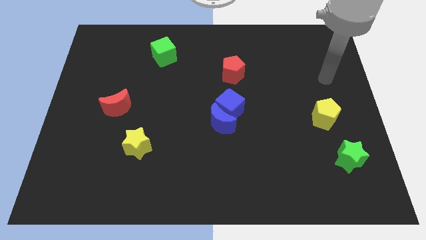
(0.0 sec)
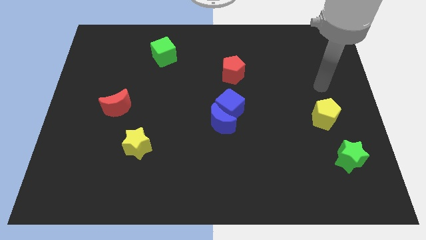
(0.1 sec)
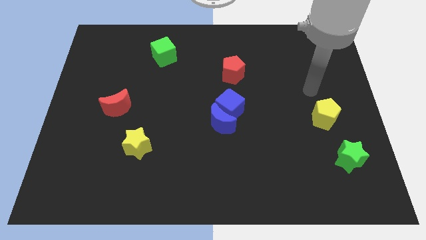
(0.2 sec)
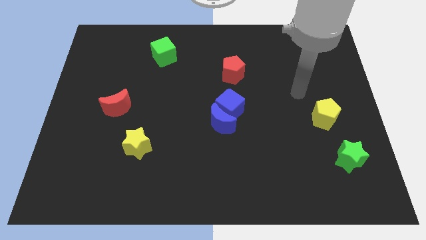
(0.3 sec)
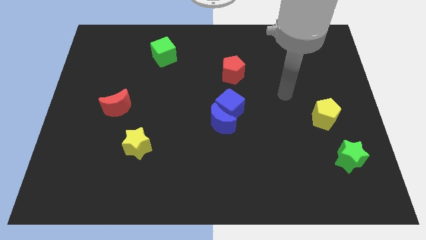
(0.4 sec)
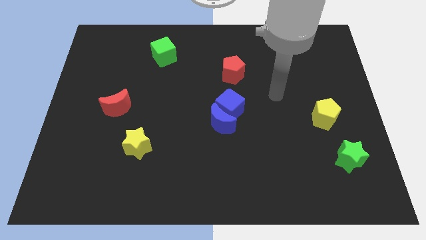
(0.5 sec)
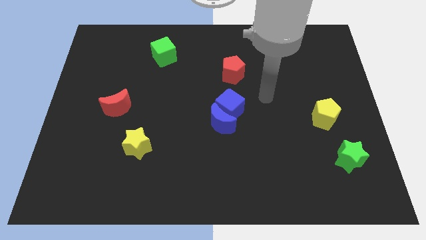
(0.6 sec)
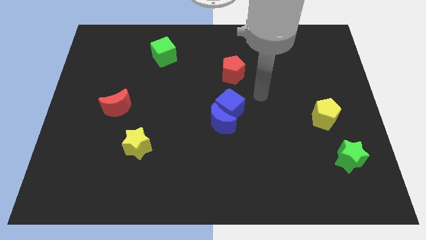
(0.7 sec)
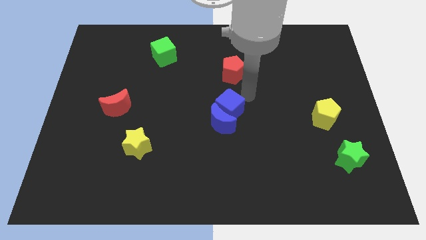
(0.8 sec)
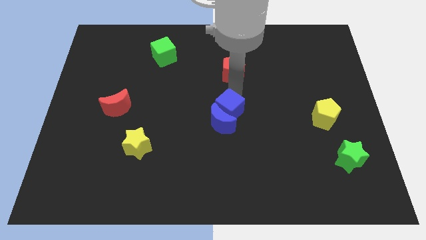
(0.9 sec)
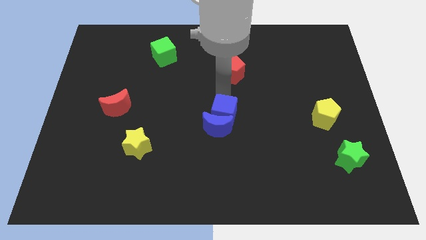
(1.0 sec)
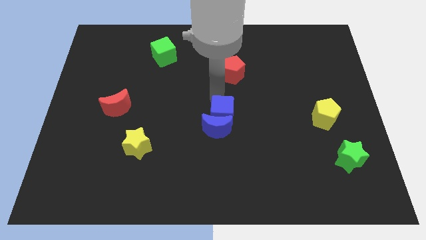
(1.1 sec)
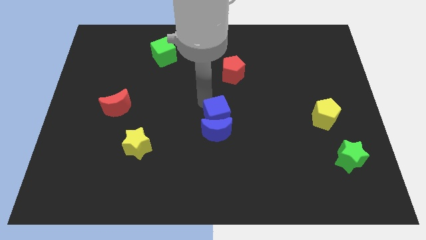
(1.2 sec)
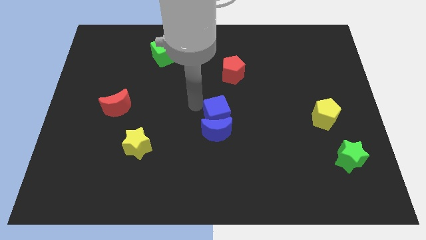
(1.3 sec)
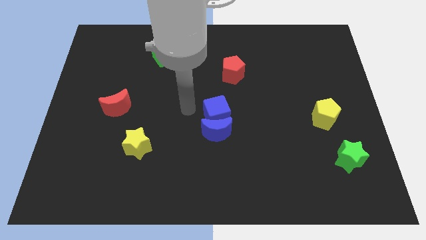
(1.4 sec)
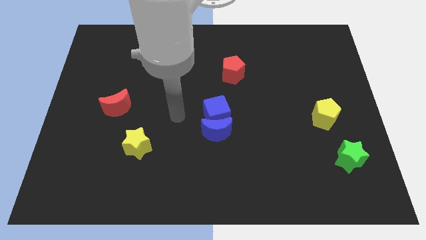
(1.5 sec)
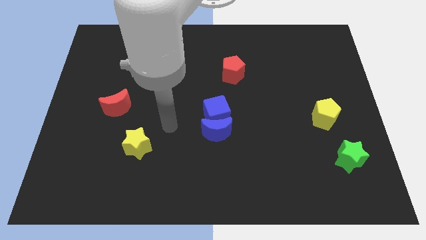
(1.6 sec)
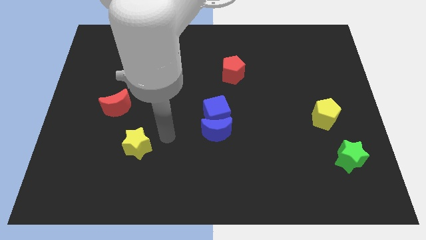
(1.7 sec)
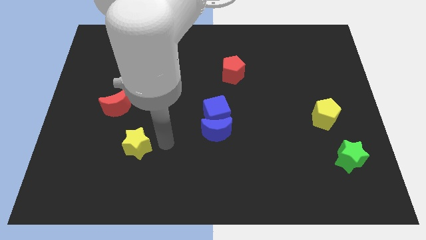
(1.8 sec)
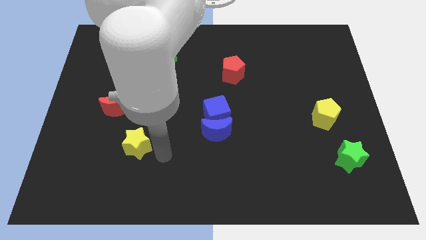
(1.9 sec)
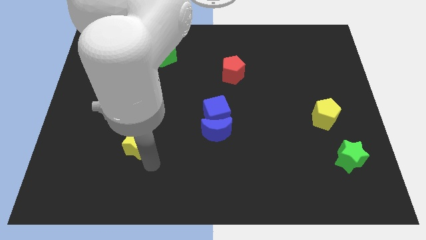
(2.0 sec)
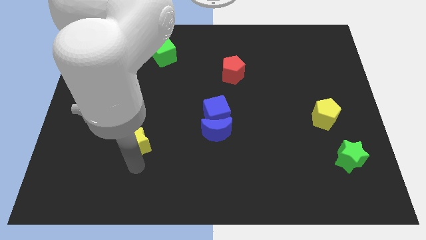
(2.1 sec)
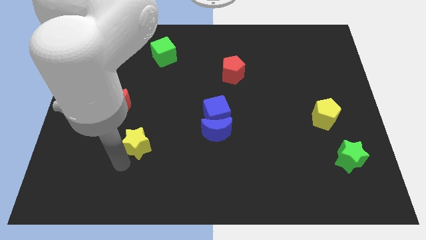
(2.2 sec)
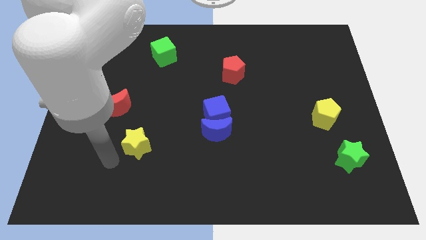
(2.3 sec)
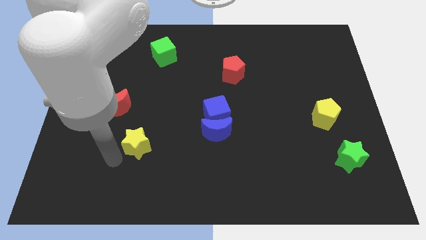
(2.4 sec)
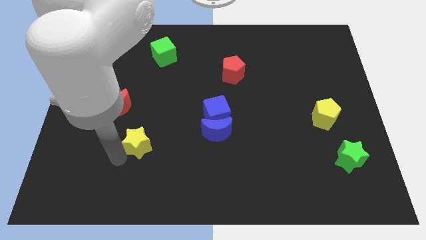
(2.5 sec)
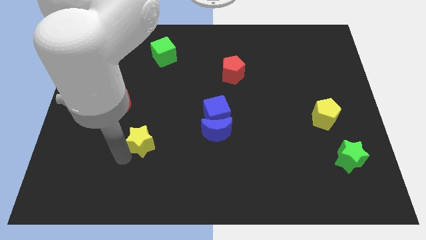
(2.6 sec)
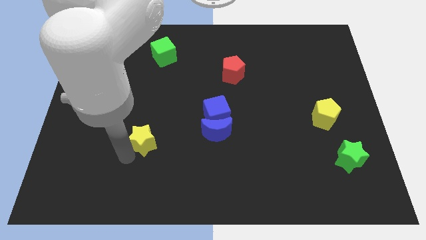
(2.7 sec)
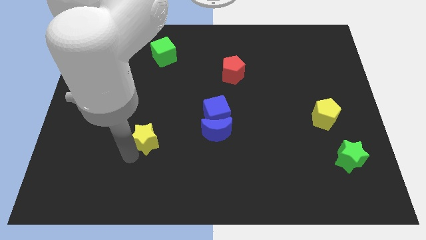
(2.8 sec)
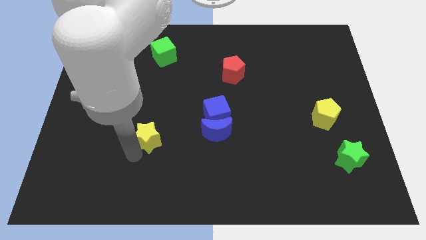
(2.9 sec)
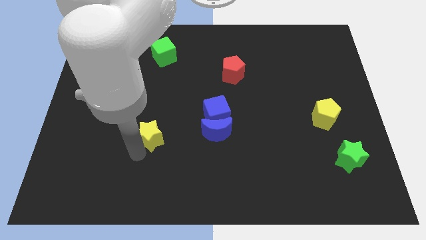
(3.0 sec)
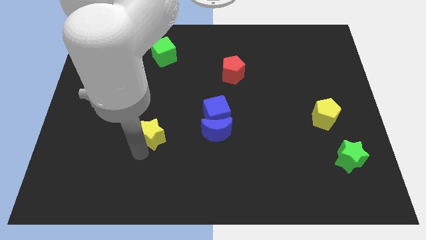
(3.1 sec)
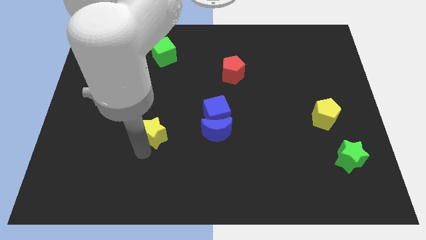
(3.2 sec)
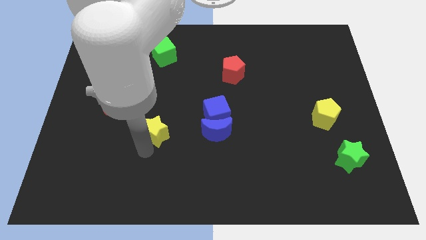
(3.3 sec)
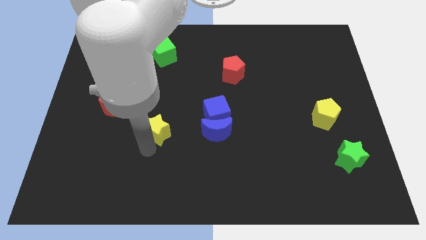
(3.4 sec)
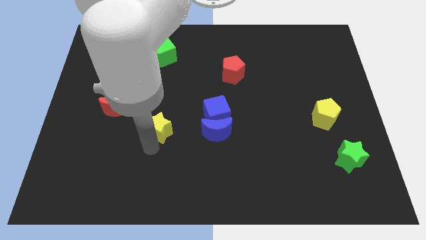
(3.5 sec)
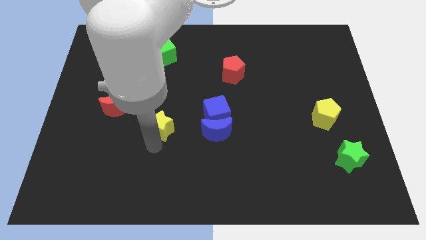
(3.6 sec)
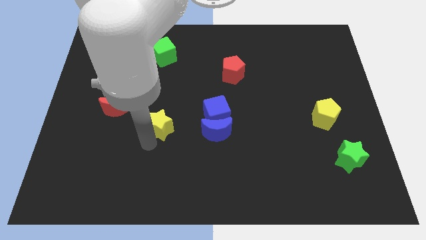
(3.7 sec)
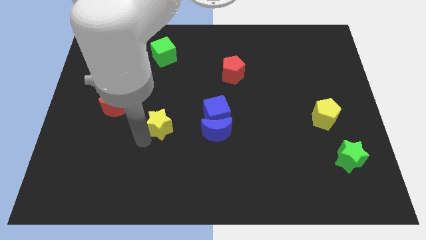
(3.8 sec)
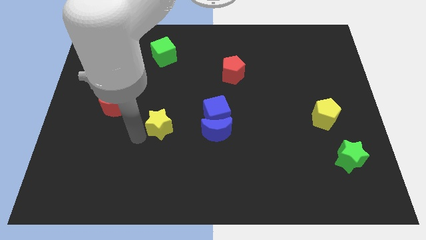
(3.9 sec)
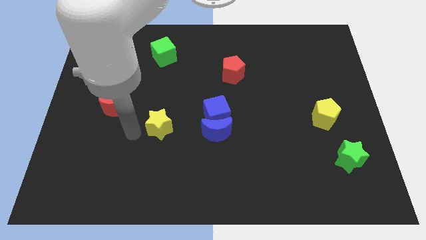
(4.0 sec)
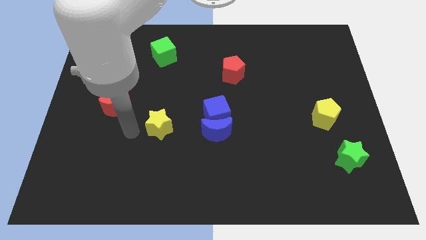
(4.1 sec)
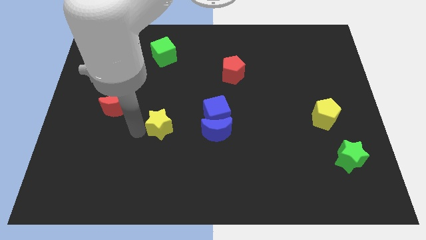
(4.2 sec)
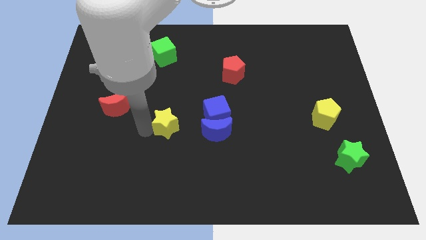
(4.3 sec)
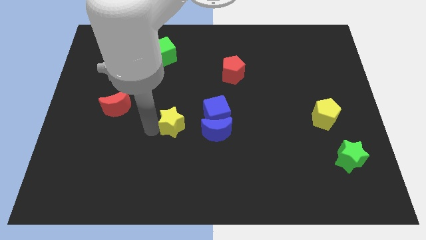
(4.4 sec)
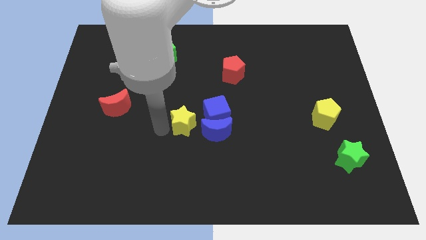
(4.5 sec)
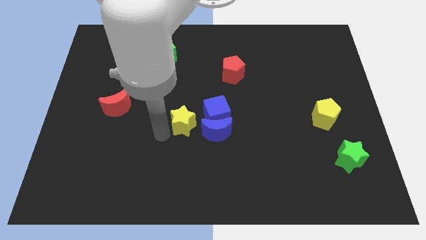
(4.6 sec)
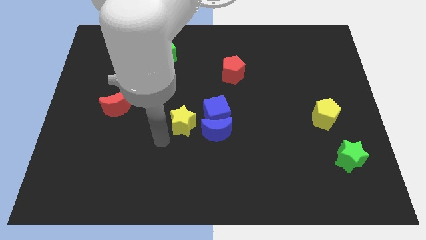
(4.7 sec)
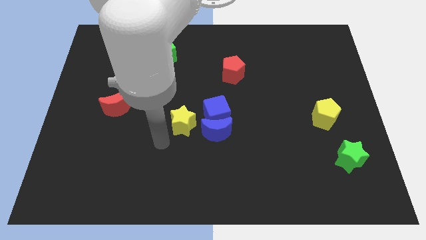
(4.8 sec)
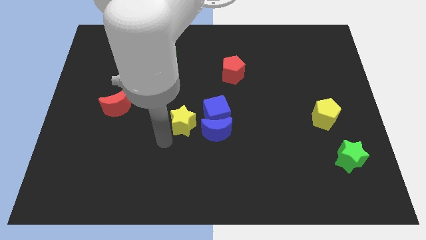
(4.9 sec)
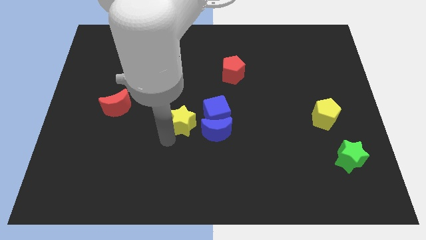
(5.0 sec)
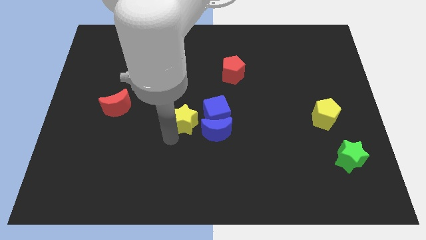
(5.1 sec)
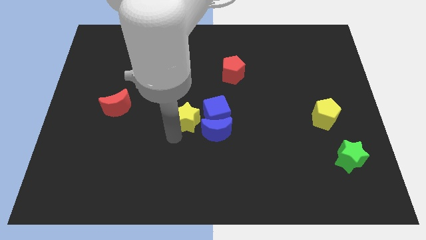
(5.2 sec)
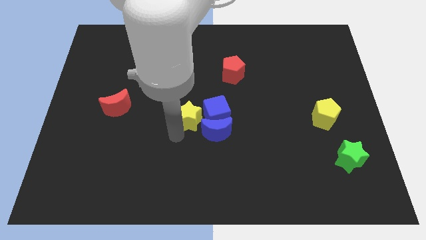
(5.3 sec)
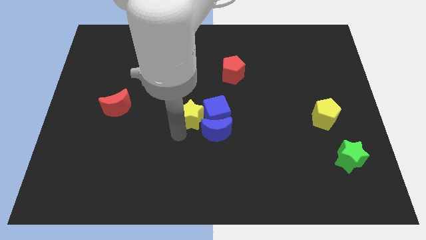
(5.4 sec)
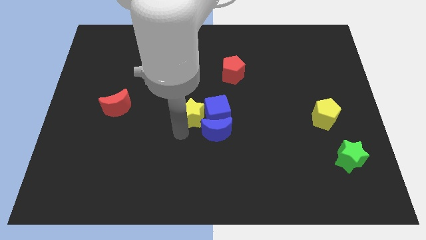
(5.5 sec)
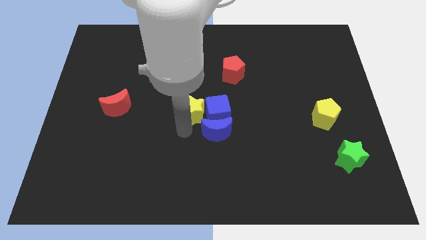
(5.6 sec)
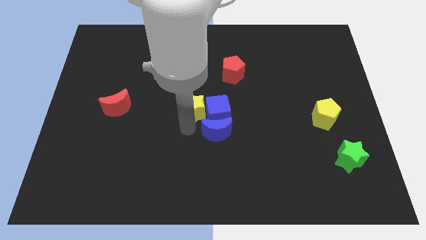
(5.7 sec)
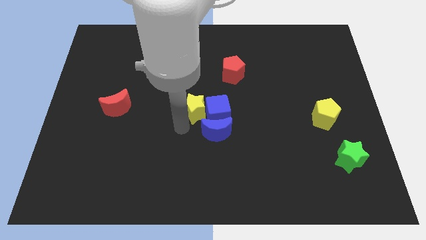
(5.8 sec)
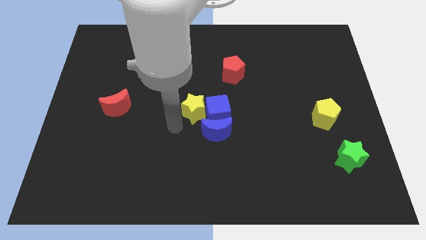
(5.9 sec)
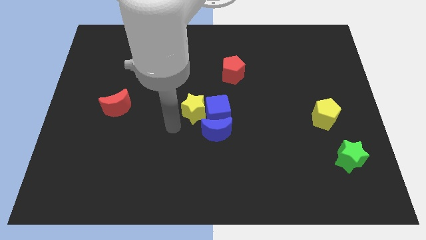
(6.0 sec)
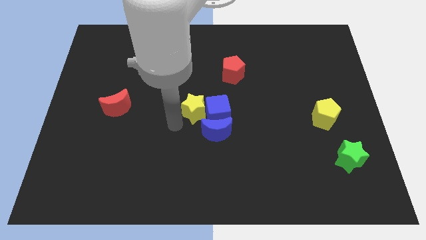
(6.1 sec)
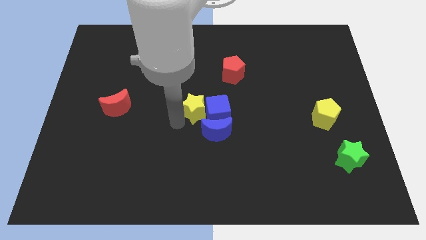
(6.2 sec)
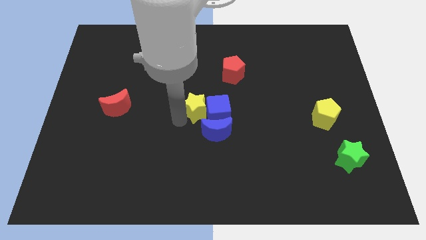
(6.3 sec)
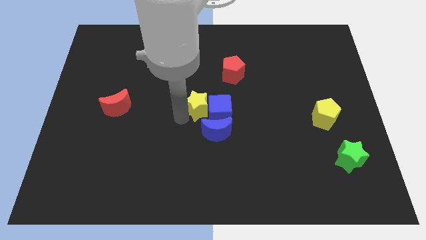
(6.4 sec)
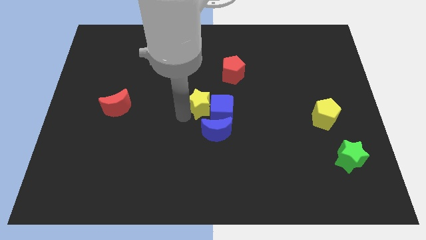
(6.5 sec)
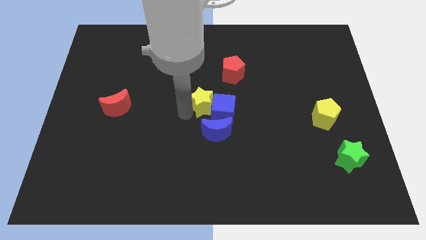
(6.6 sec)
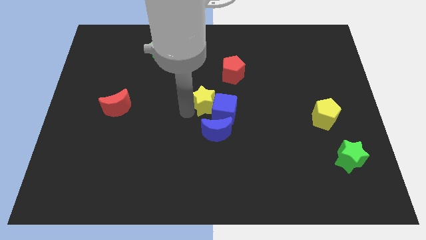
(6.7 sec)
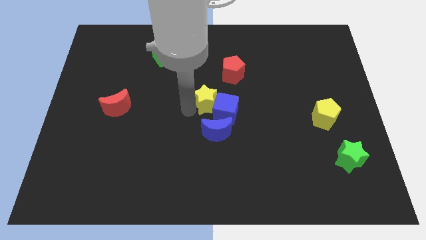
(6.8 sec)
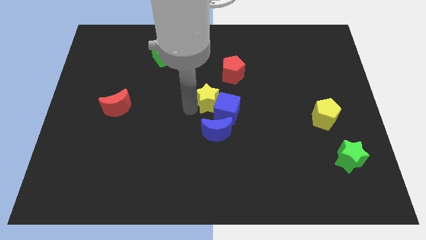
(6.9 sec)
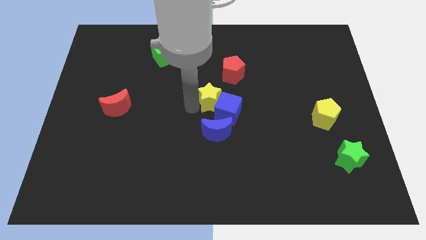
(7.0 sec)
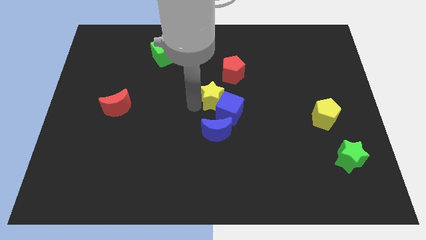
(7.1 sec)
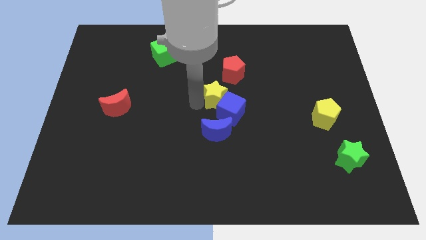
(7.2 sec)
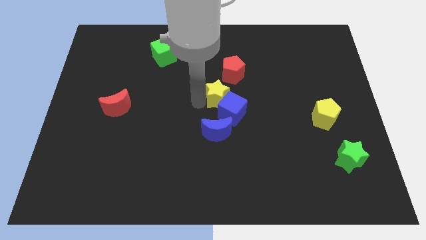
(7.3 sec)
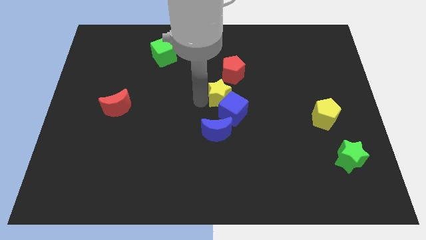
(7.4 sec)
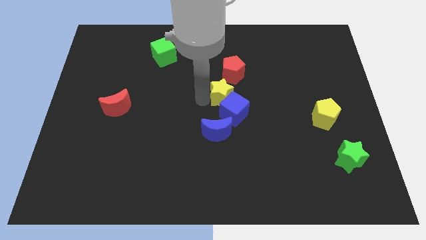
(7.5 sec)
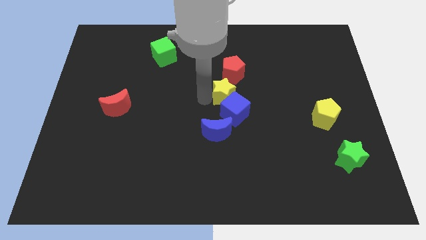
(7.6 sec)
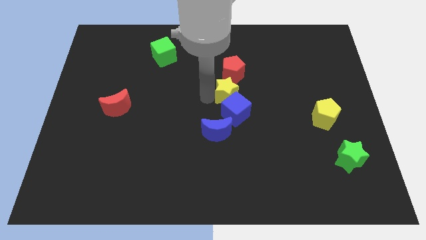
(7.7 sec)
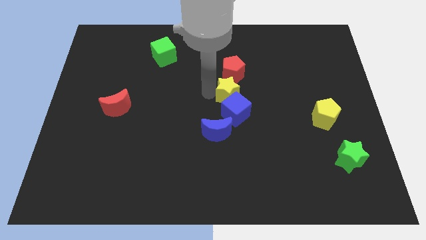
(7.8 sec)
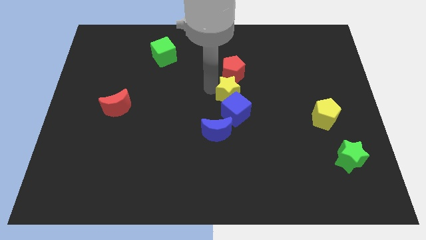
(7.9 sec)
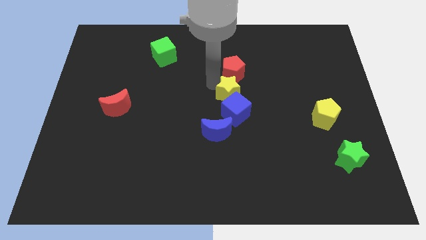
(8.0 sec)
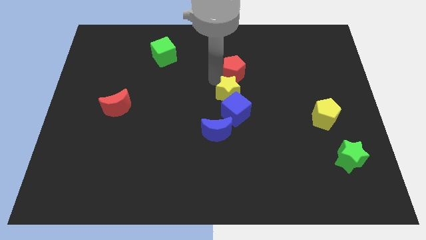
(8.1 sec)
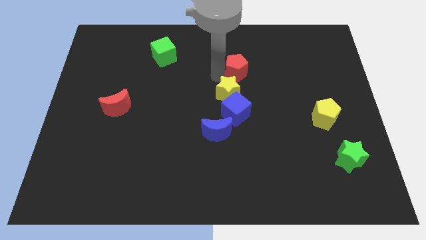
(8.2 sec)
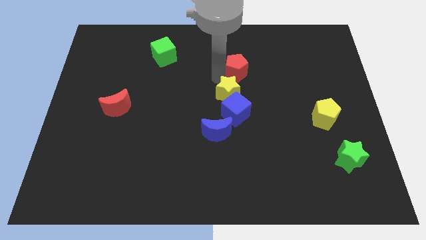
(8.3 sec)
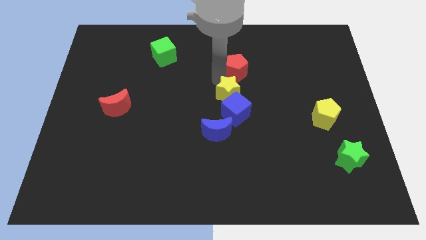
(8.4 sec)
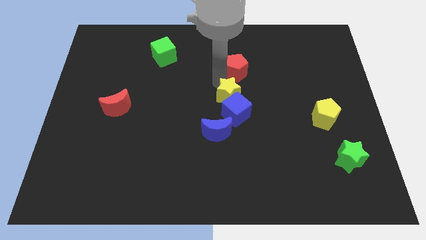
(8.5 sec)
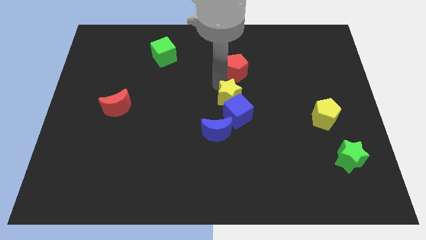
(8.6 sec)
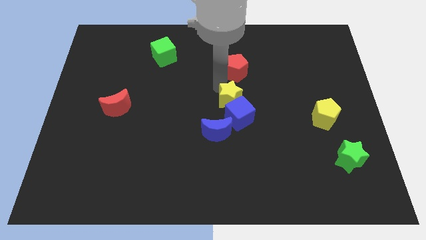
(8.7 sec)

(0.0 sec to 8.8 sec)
move the yellow star diagonally up and to the right of the blue moon
